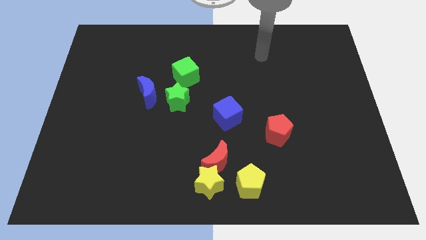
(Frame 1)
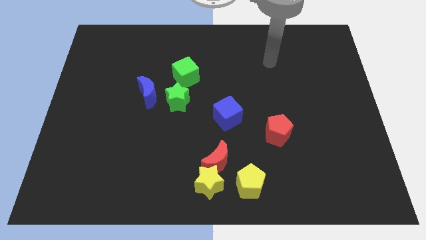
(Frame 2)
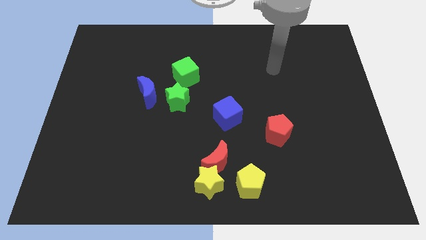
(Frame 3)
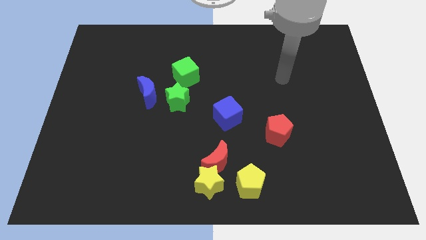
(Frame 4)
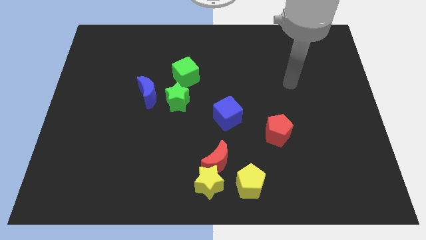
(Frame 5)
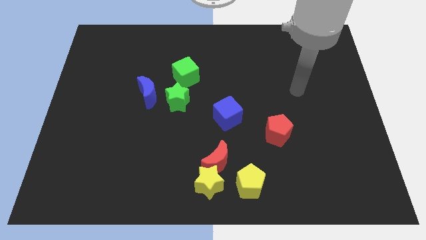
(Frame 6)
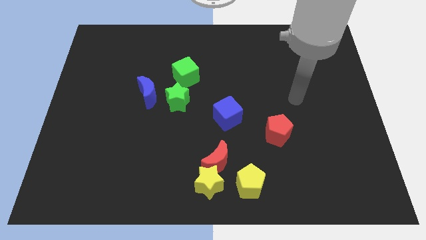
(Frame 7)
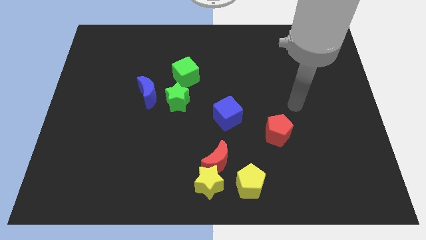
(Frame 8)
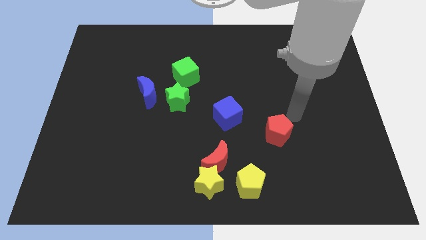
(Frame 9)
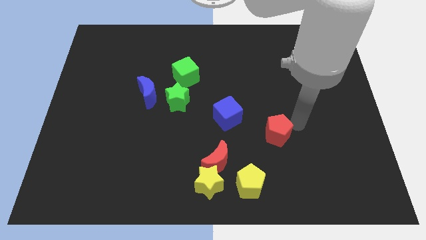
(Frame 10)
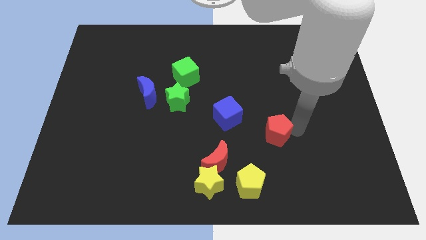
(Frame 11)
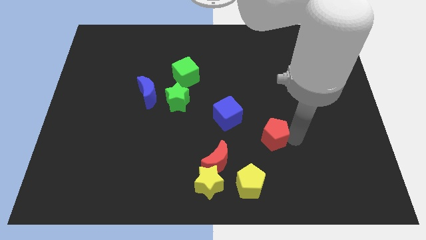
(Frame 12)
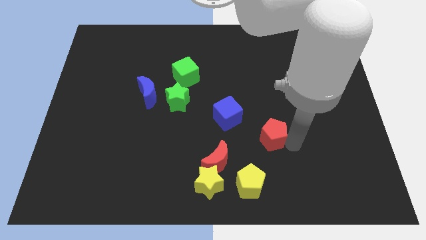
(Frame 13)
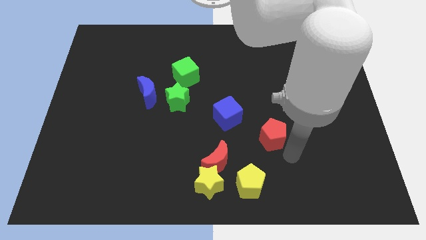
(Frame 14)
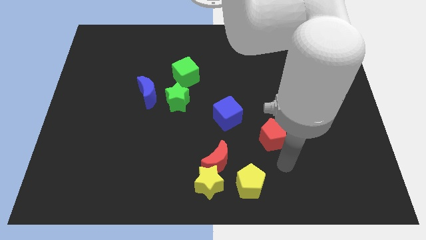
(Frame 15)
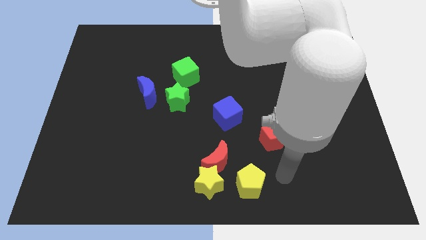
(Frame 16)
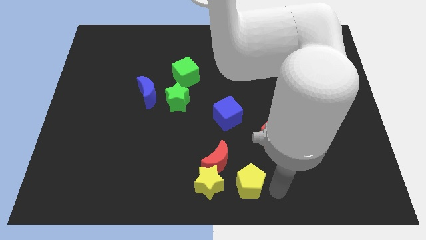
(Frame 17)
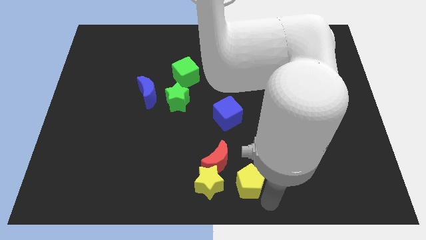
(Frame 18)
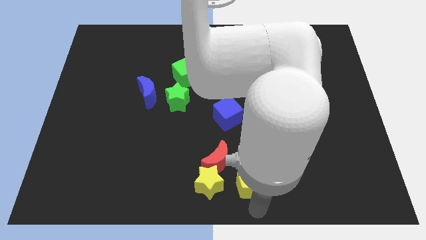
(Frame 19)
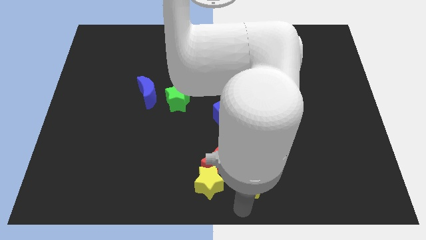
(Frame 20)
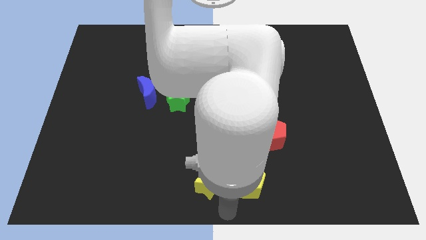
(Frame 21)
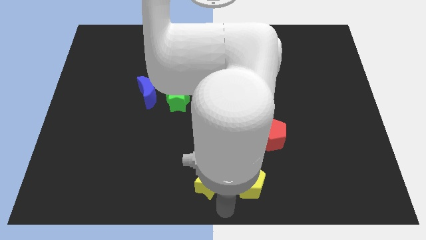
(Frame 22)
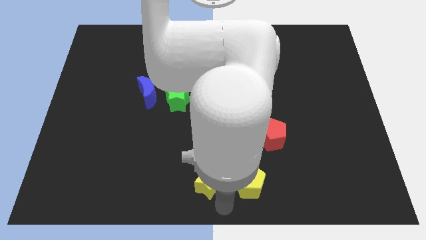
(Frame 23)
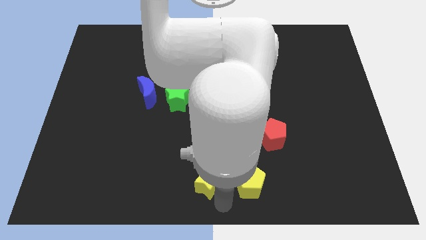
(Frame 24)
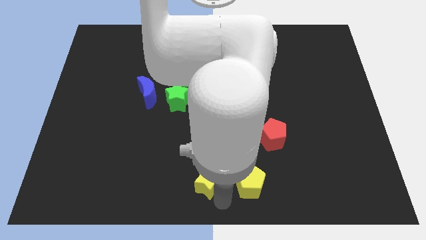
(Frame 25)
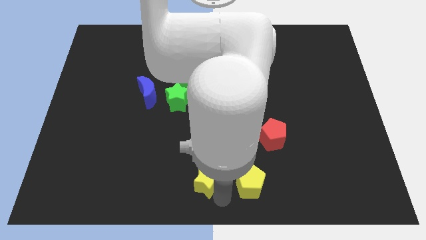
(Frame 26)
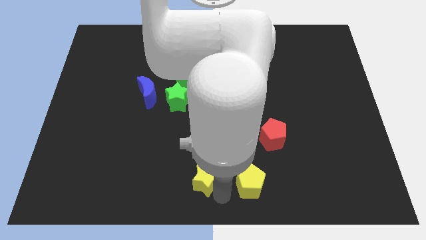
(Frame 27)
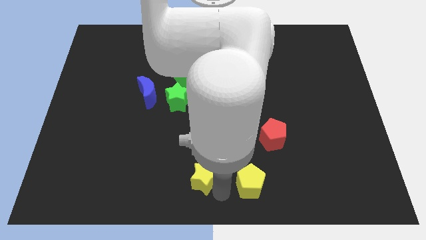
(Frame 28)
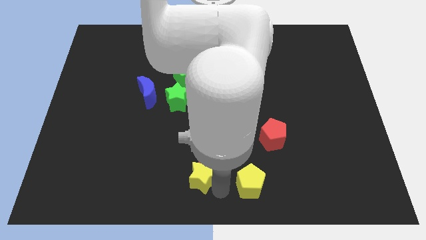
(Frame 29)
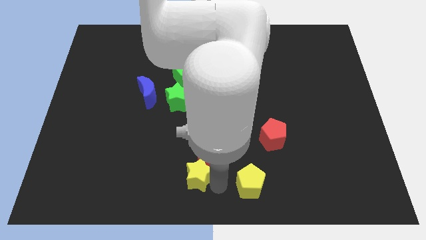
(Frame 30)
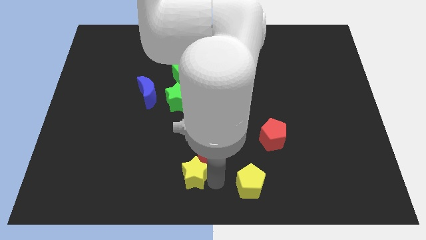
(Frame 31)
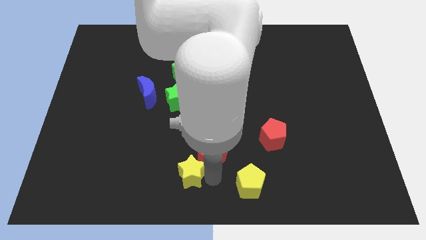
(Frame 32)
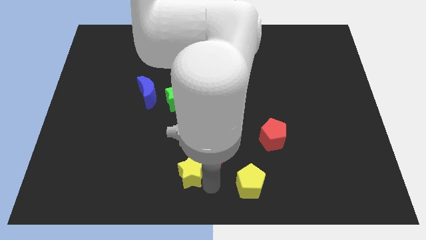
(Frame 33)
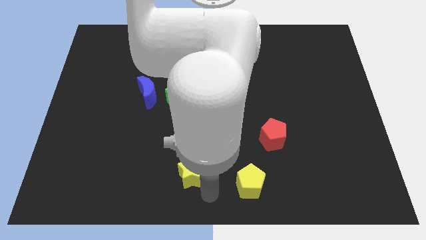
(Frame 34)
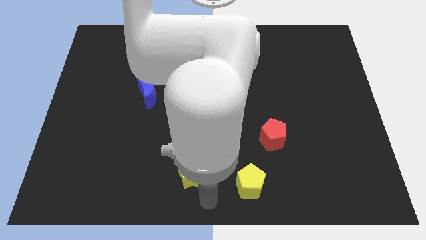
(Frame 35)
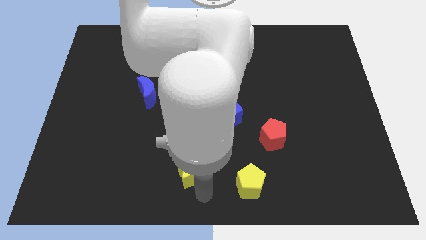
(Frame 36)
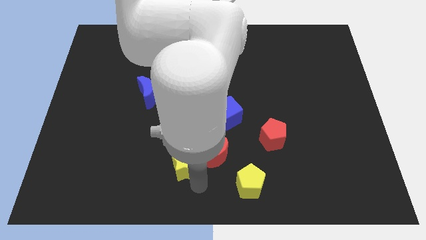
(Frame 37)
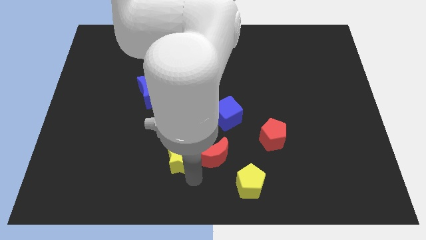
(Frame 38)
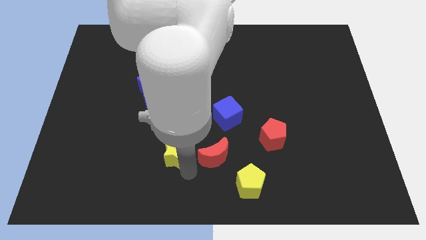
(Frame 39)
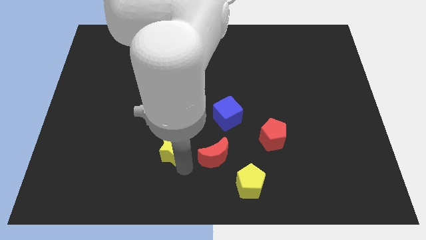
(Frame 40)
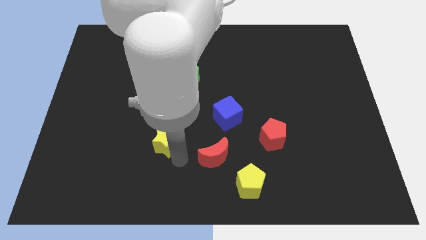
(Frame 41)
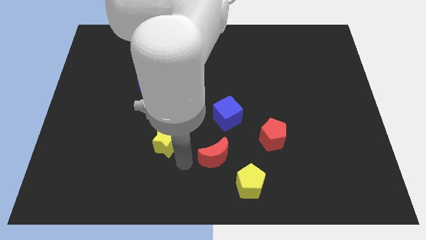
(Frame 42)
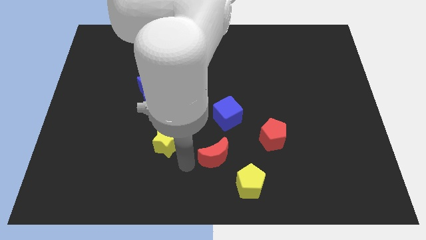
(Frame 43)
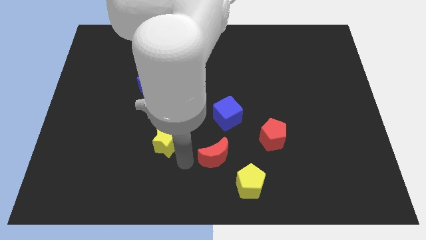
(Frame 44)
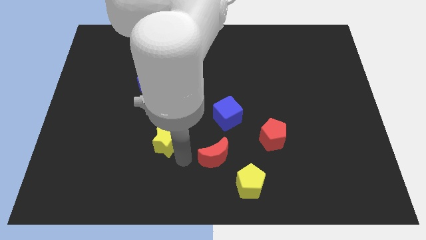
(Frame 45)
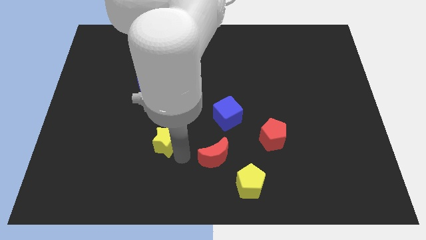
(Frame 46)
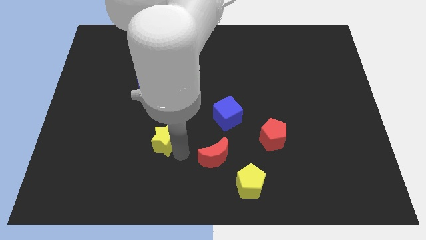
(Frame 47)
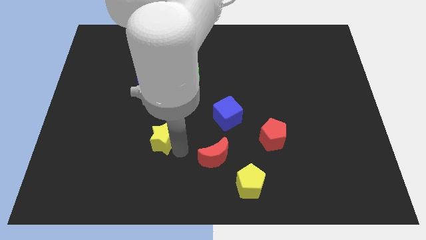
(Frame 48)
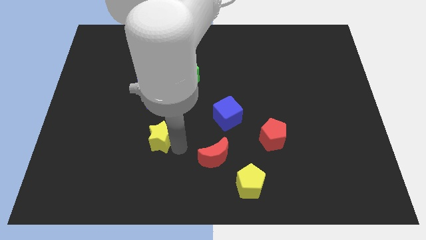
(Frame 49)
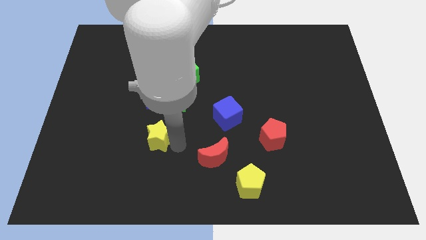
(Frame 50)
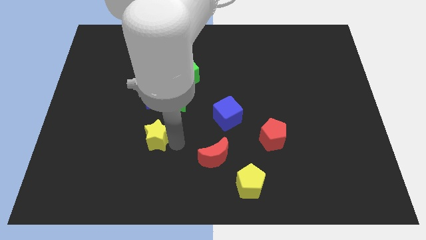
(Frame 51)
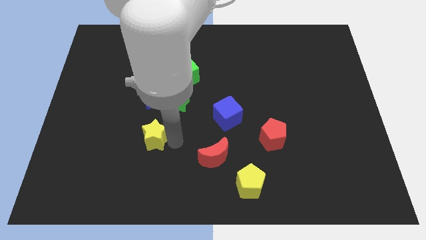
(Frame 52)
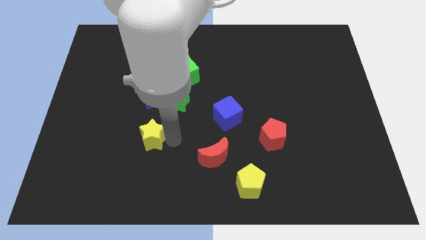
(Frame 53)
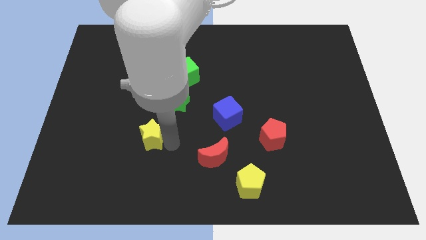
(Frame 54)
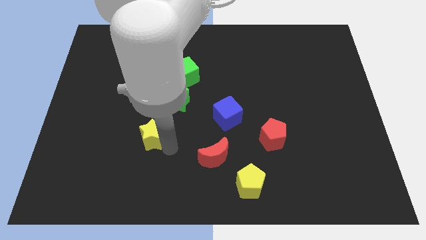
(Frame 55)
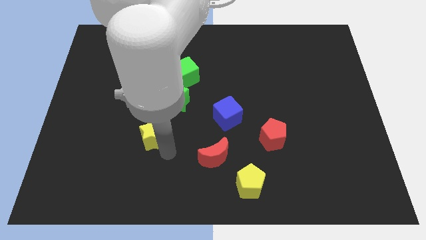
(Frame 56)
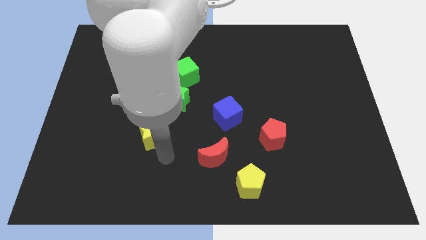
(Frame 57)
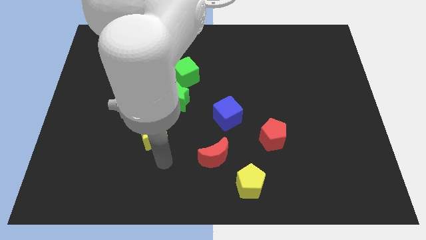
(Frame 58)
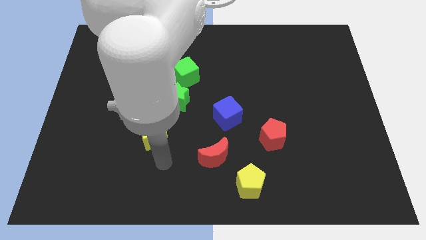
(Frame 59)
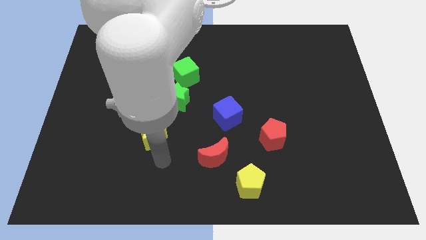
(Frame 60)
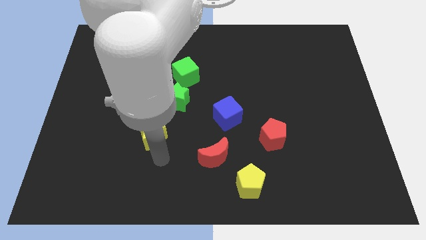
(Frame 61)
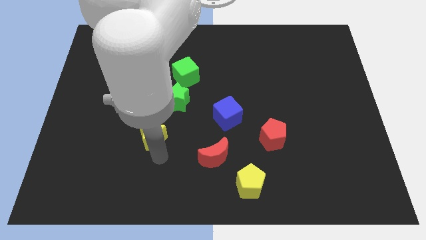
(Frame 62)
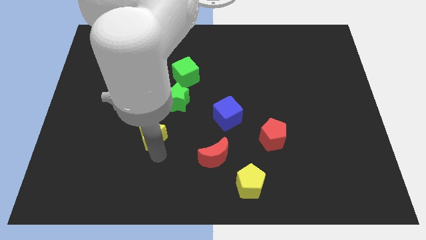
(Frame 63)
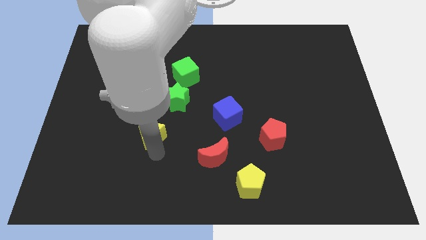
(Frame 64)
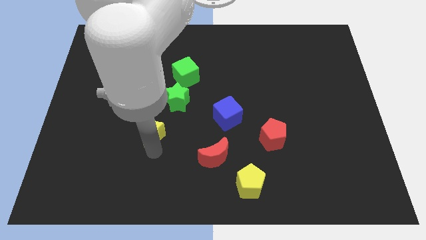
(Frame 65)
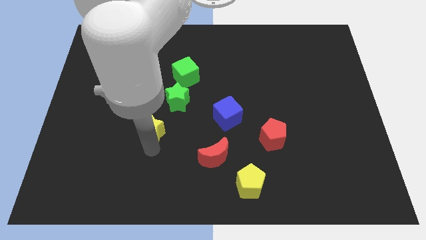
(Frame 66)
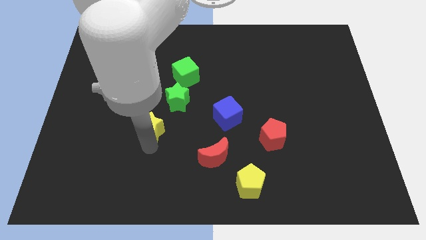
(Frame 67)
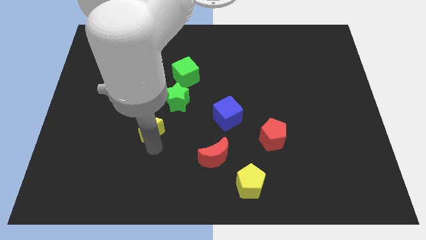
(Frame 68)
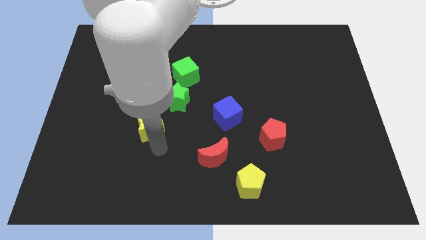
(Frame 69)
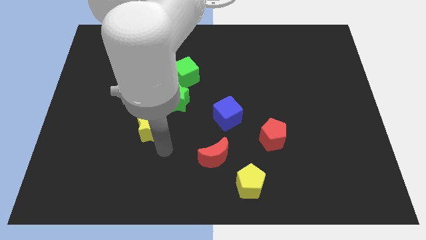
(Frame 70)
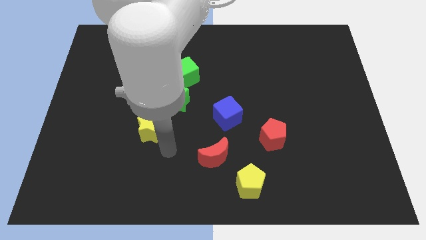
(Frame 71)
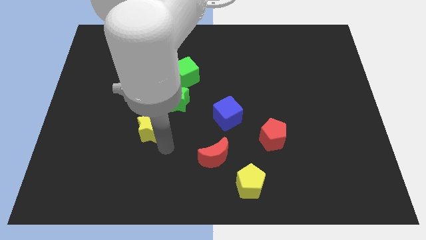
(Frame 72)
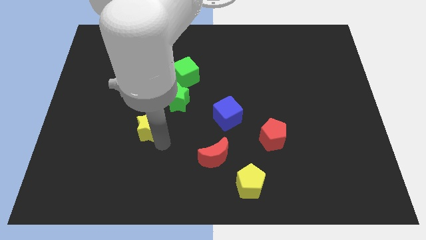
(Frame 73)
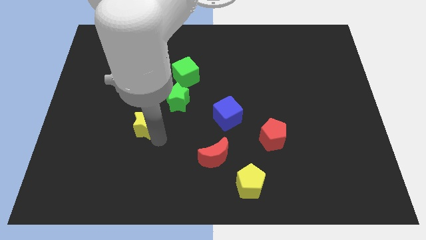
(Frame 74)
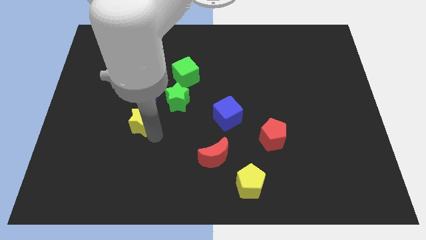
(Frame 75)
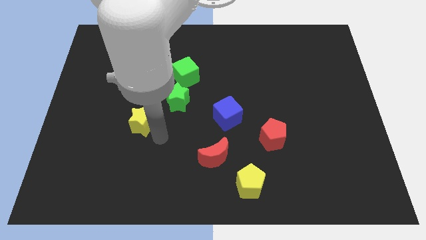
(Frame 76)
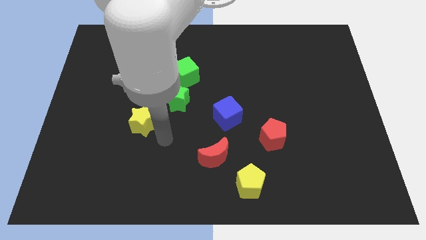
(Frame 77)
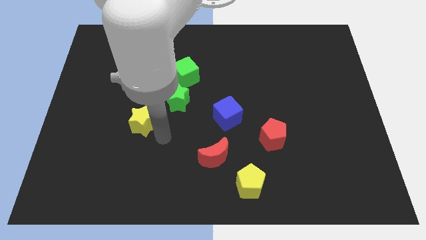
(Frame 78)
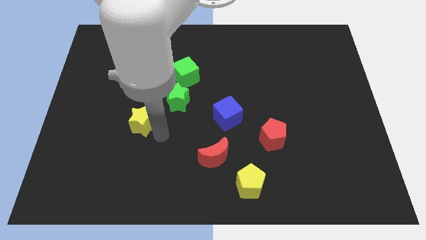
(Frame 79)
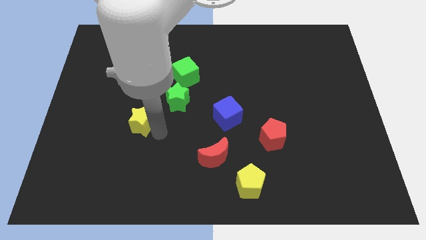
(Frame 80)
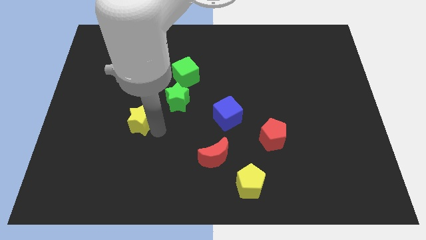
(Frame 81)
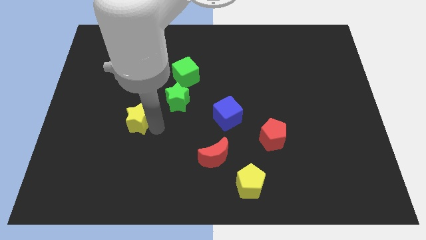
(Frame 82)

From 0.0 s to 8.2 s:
push the yellow star to the bottom left of the blue moon
